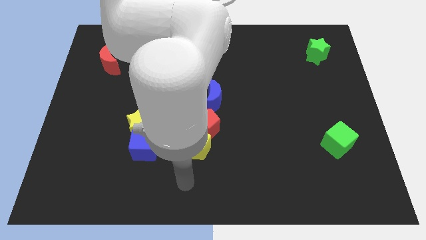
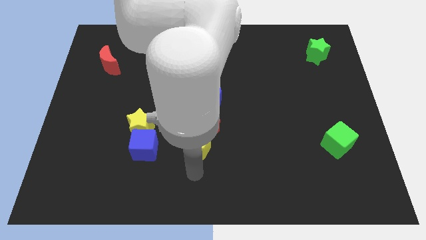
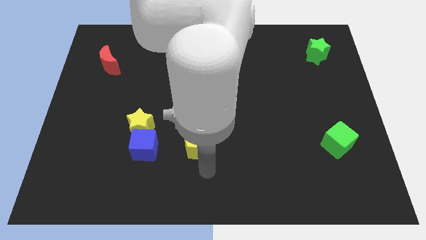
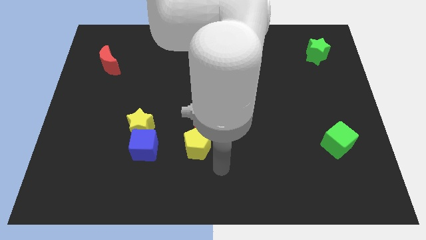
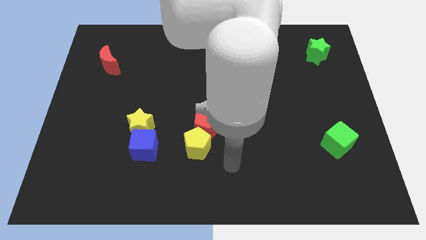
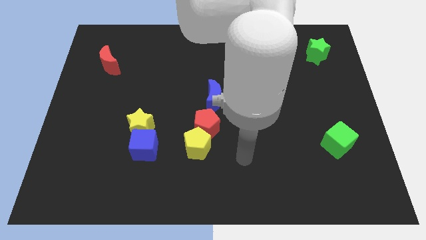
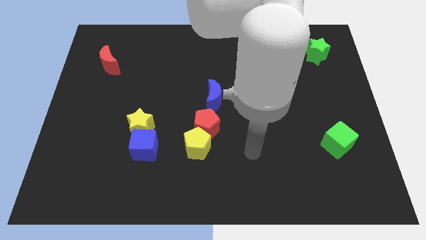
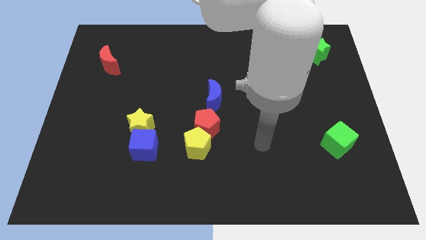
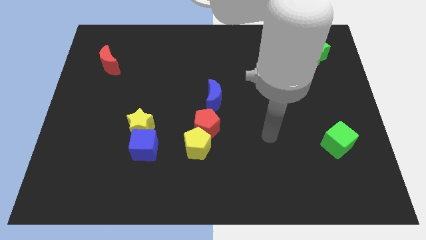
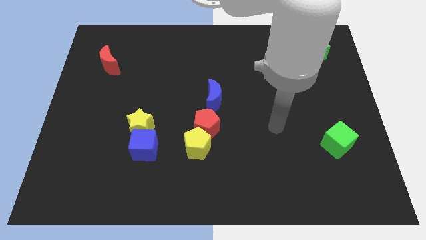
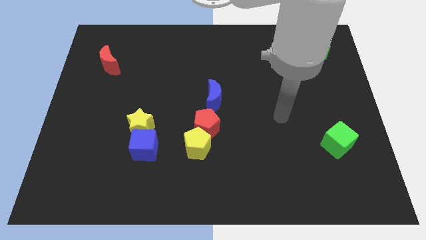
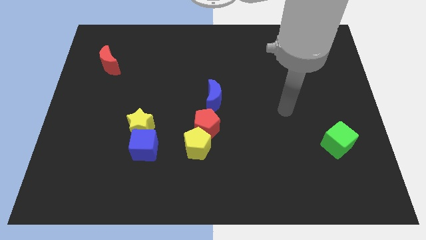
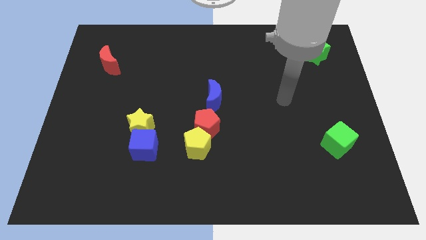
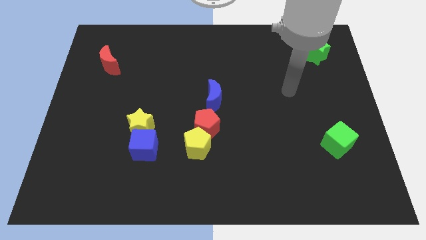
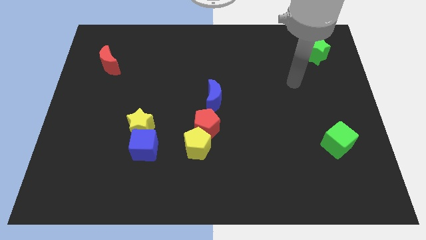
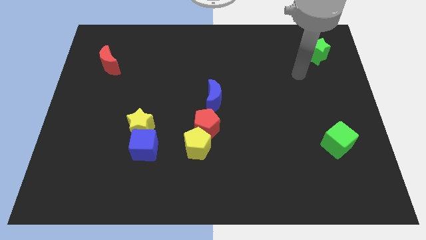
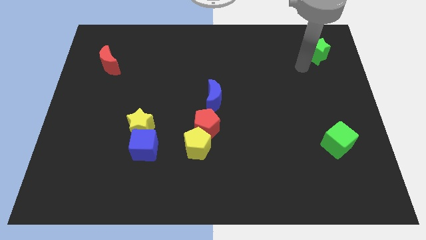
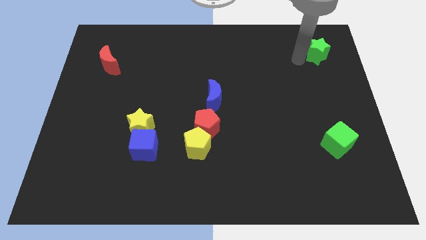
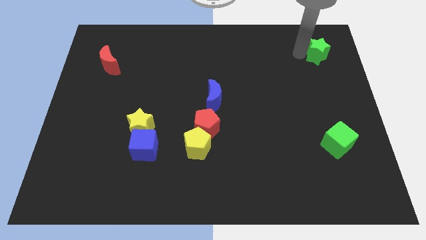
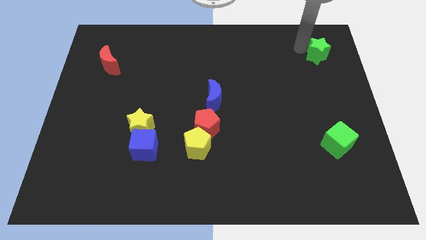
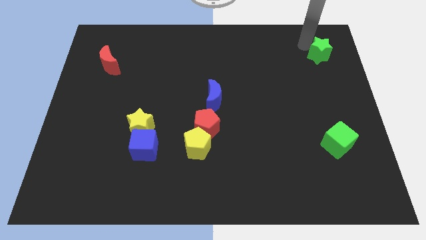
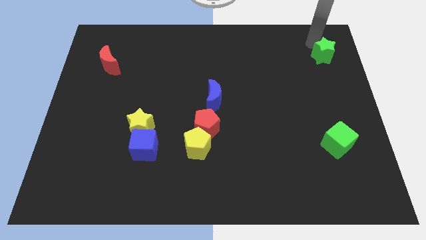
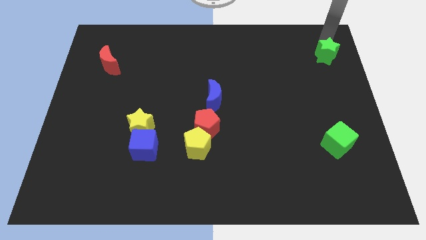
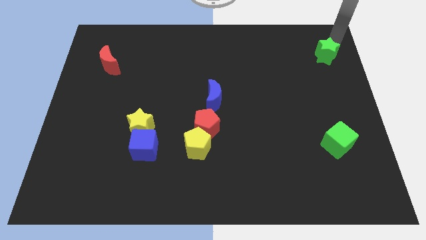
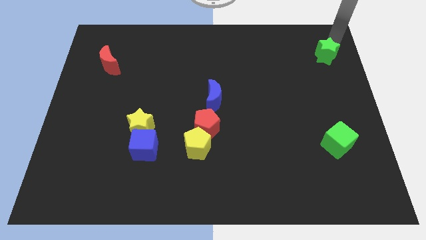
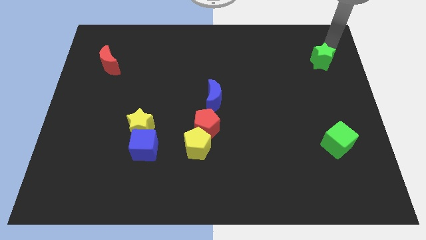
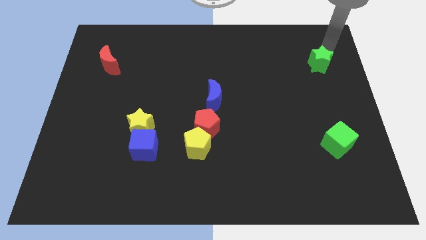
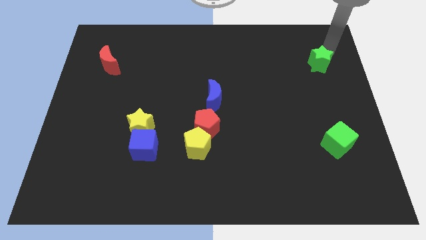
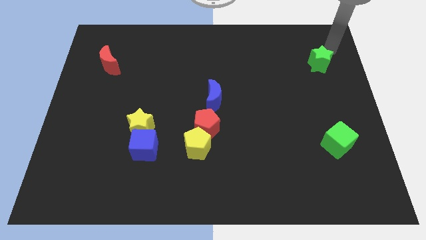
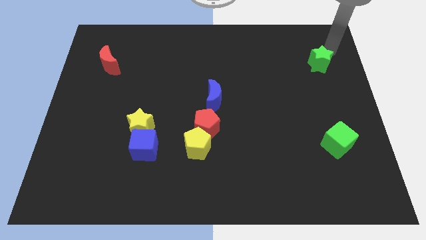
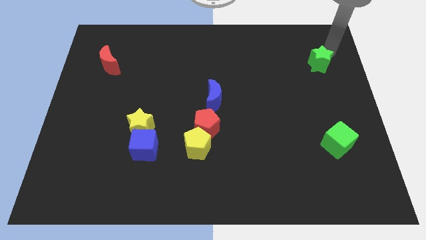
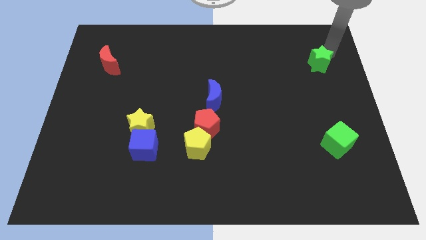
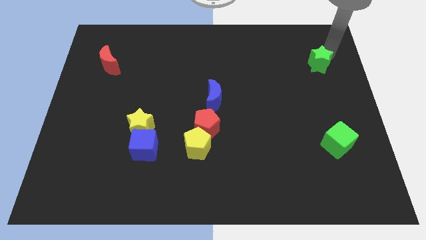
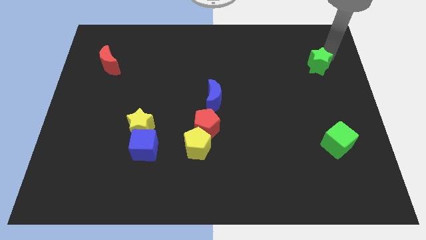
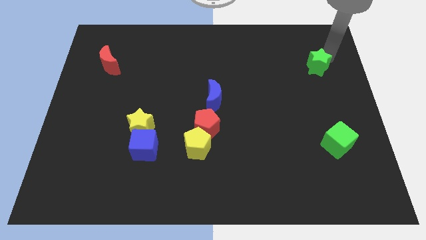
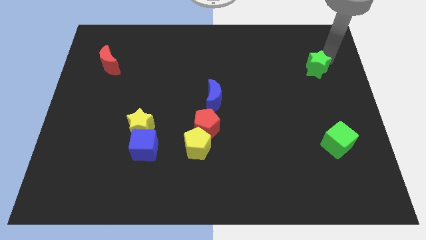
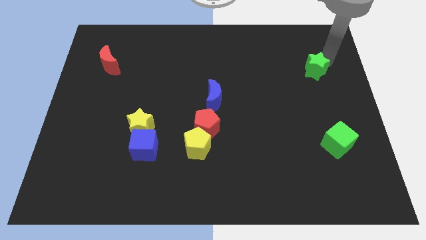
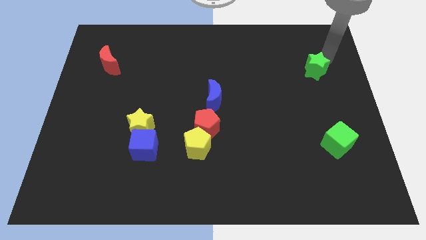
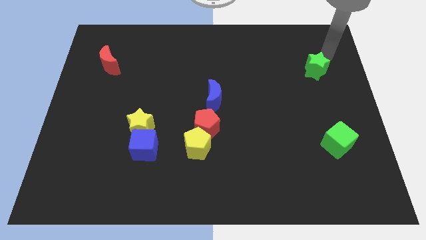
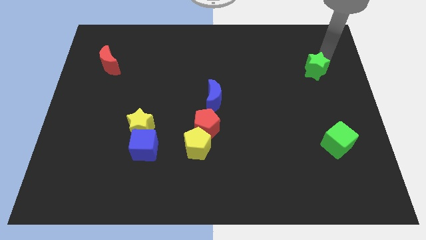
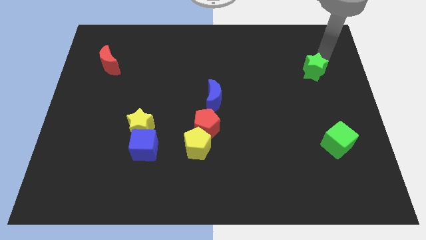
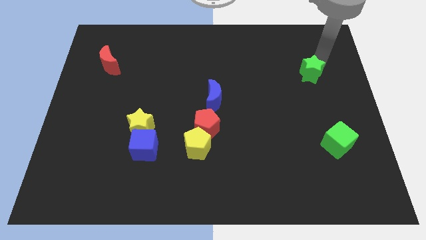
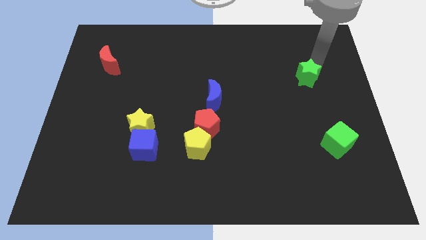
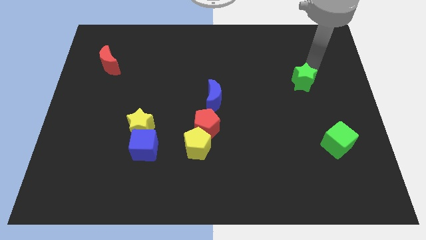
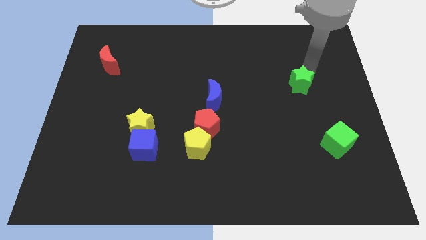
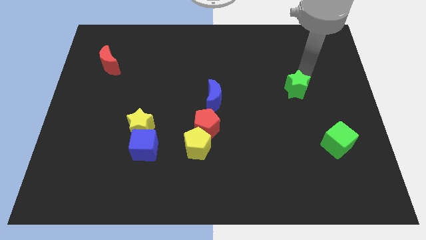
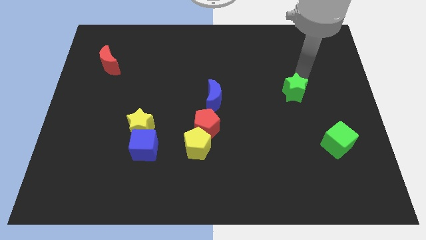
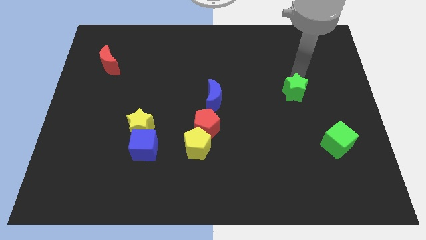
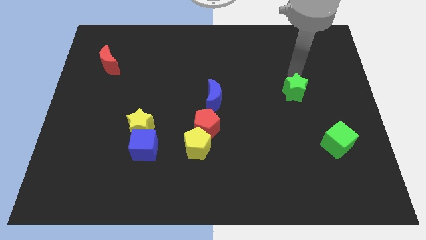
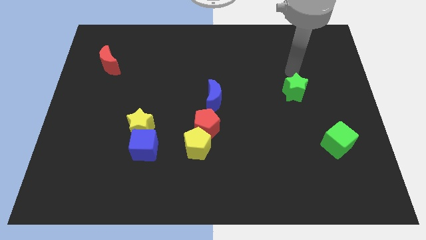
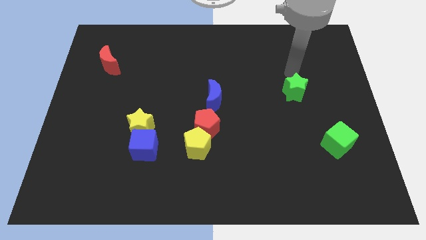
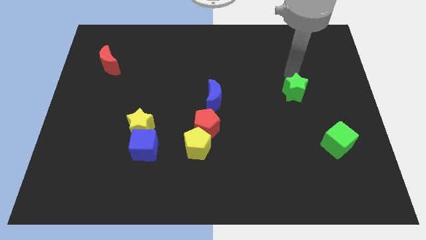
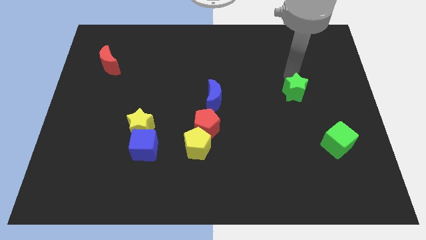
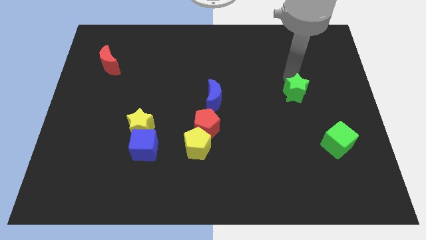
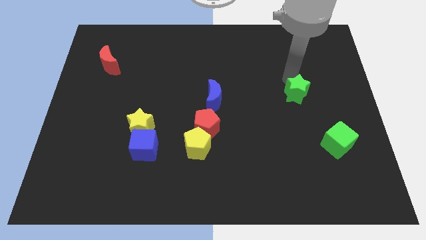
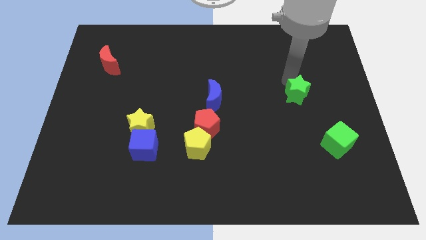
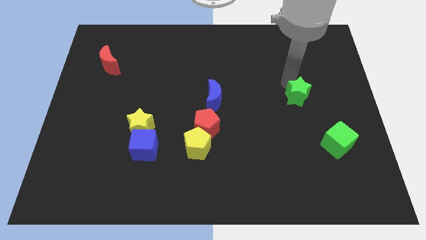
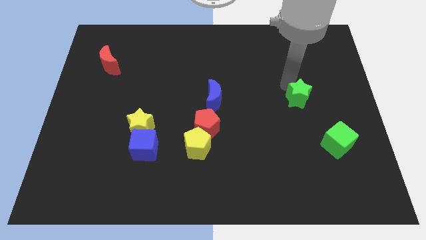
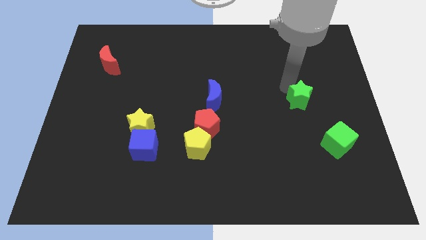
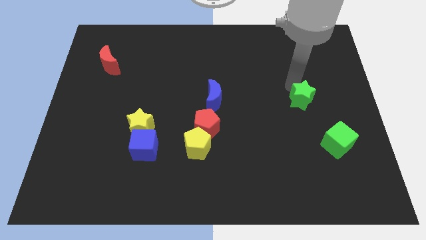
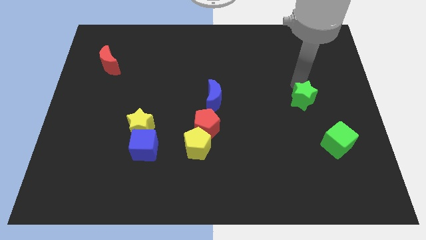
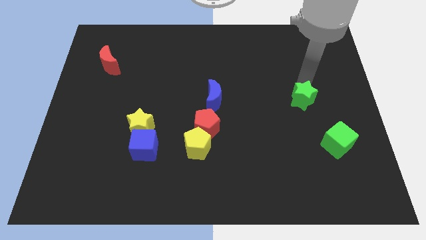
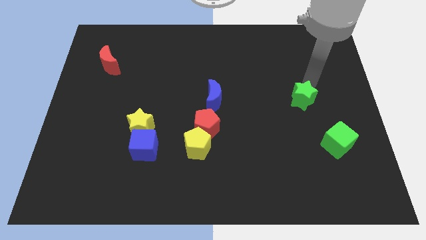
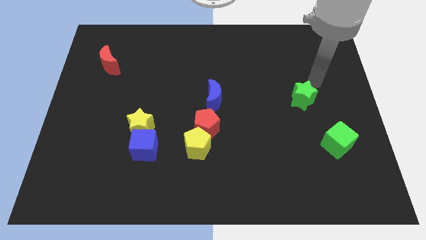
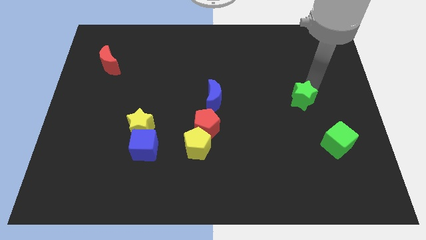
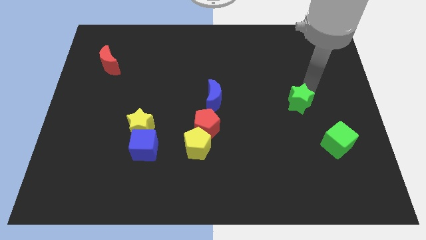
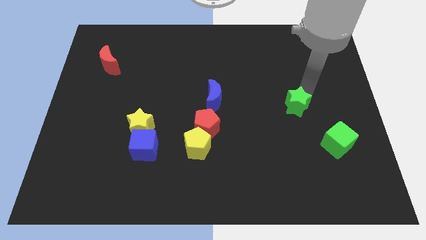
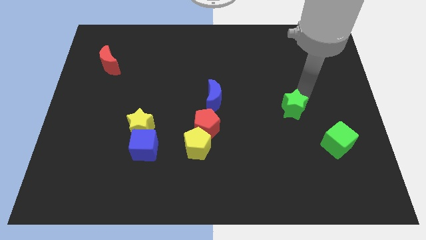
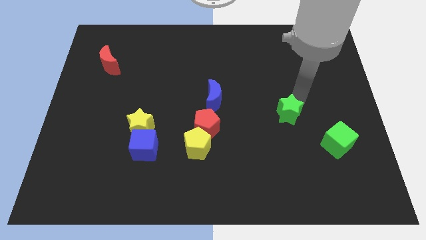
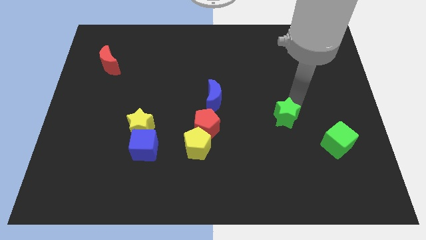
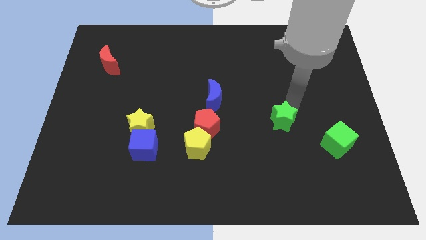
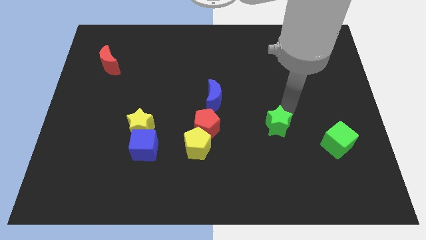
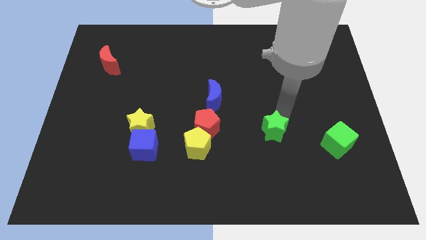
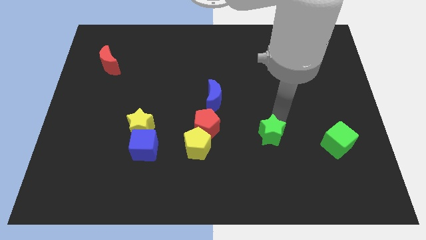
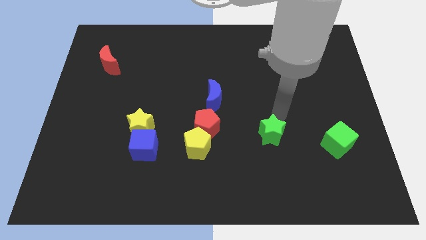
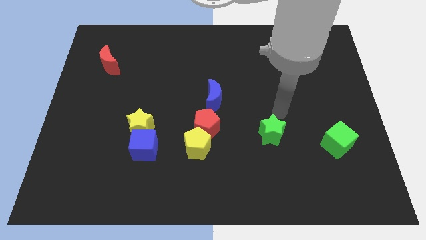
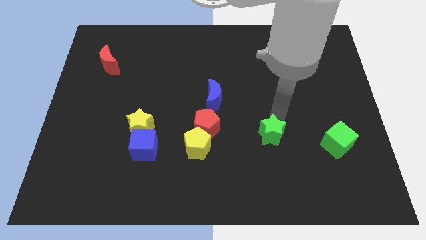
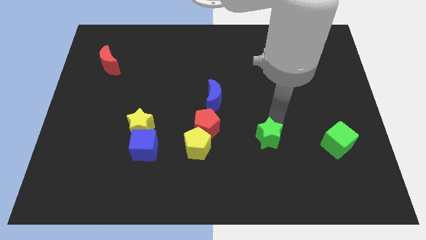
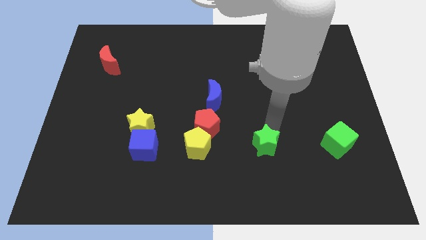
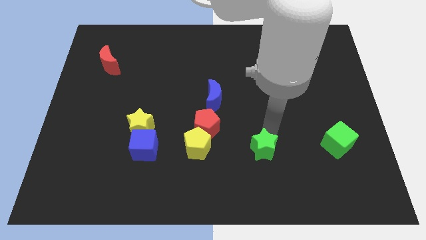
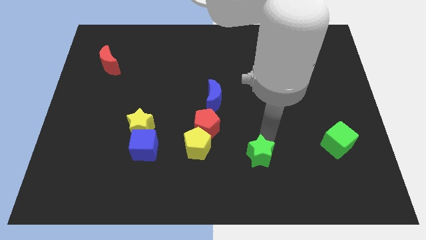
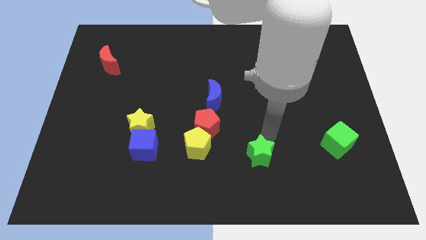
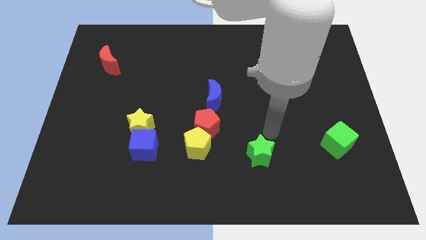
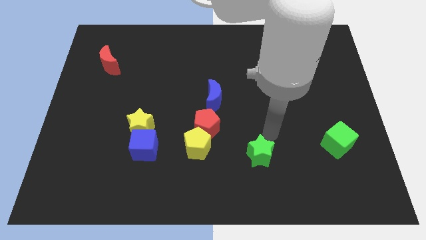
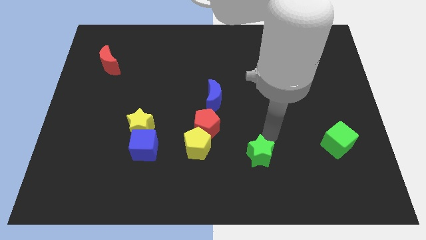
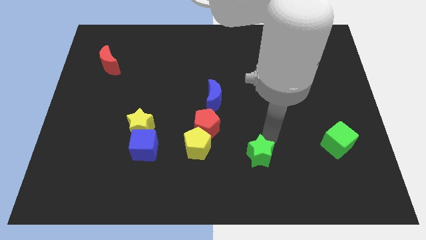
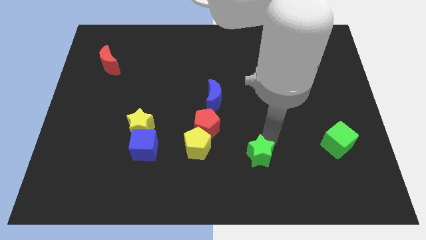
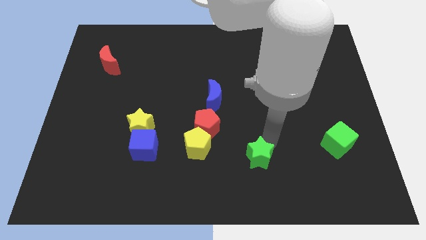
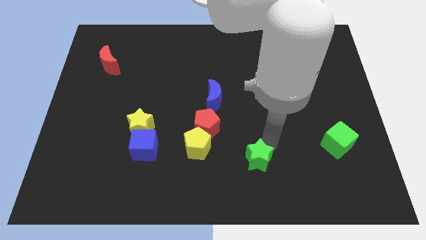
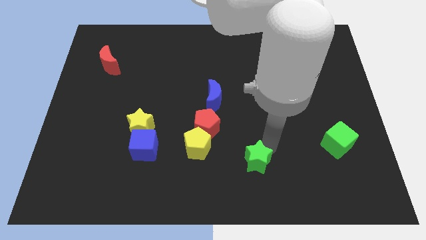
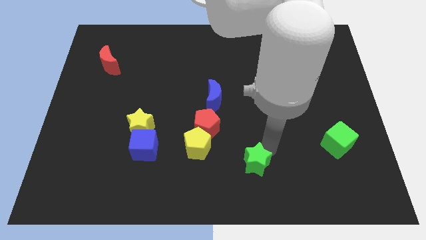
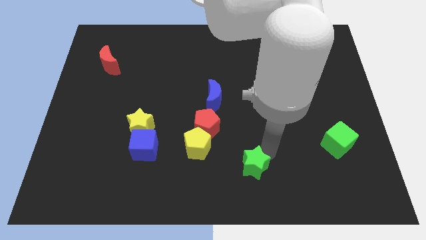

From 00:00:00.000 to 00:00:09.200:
slide the green star to the bottom side
